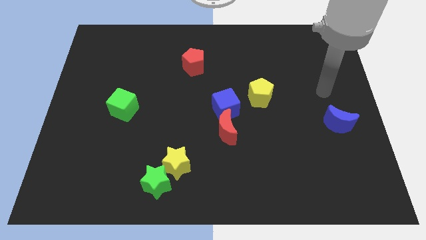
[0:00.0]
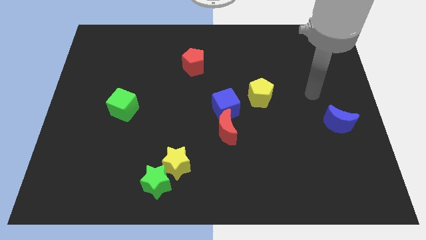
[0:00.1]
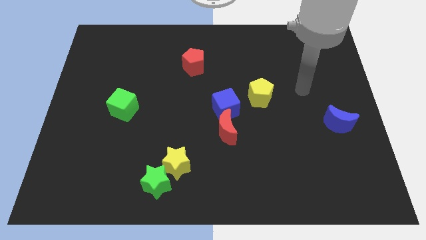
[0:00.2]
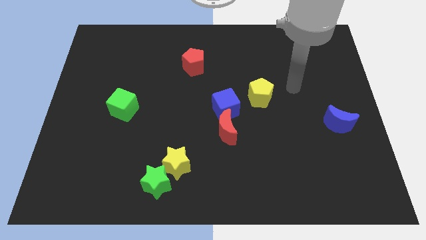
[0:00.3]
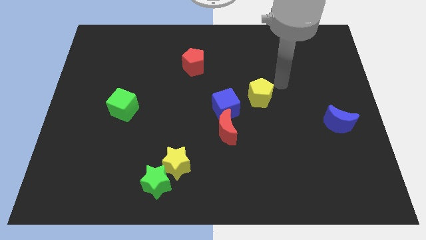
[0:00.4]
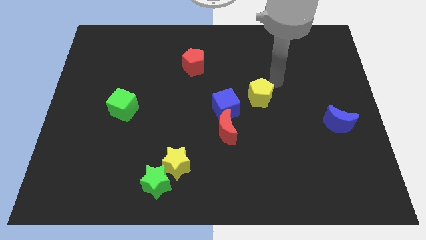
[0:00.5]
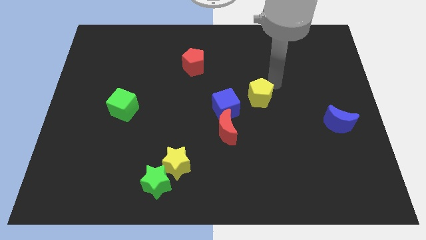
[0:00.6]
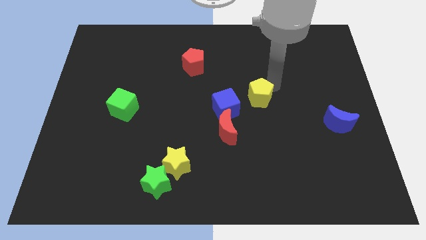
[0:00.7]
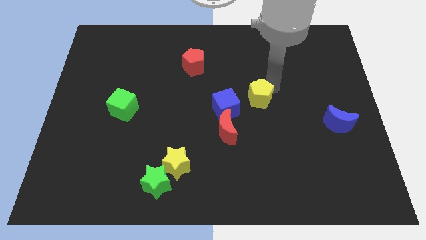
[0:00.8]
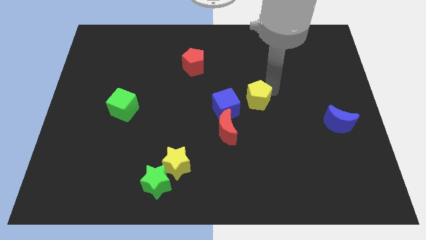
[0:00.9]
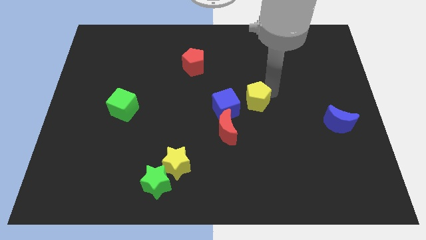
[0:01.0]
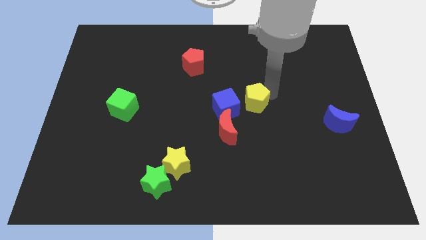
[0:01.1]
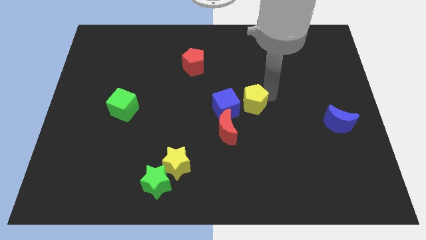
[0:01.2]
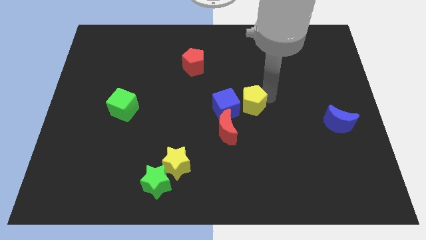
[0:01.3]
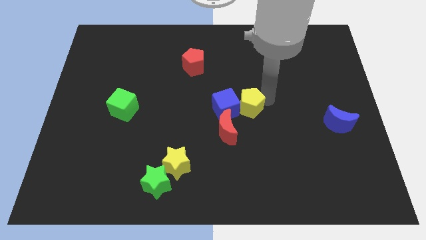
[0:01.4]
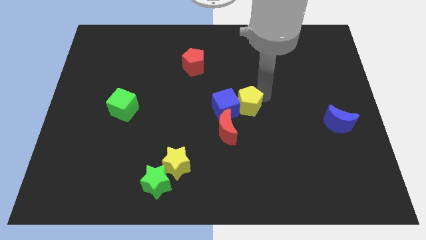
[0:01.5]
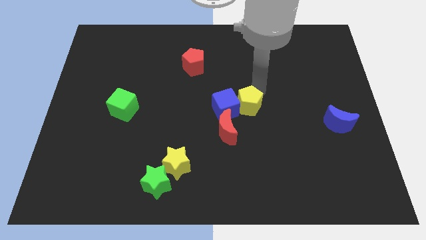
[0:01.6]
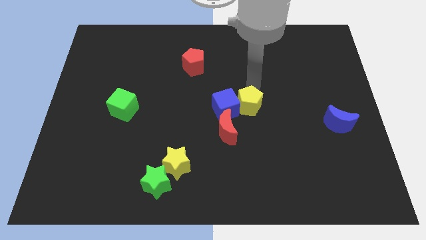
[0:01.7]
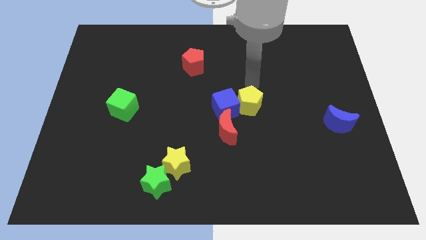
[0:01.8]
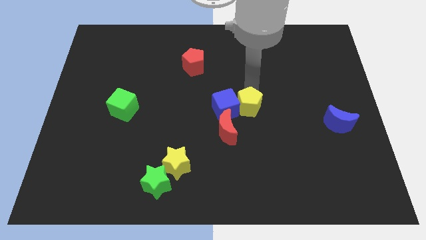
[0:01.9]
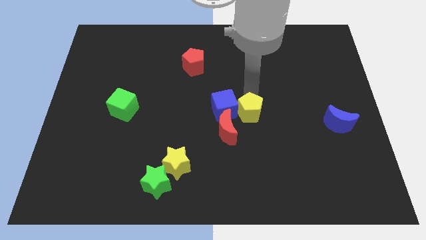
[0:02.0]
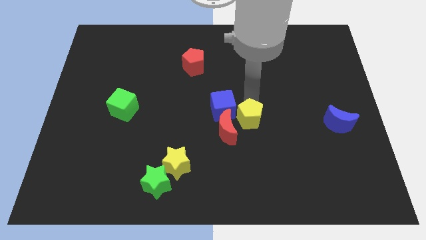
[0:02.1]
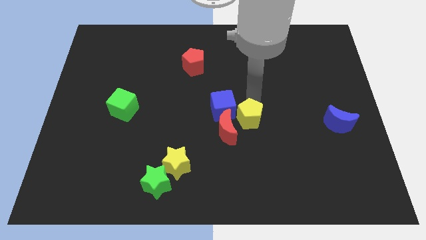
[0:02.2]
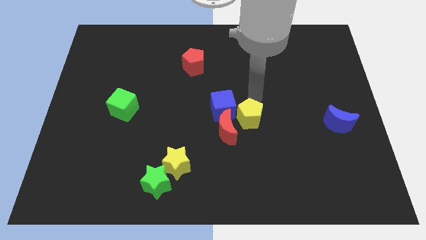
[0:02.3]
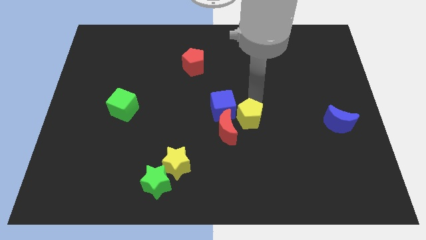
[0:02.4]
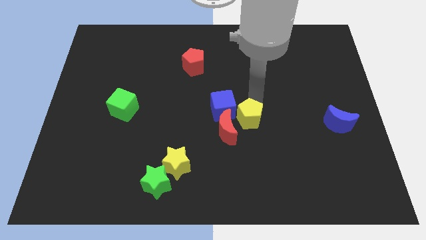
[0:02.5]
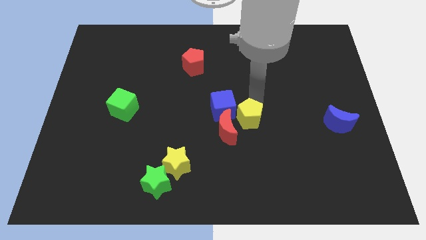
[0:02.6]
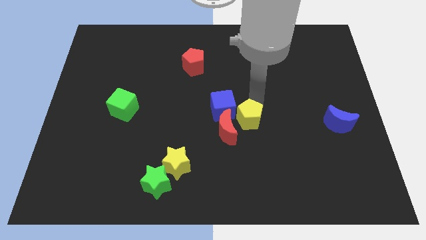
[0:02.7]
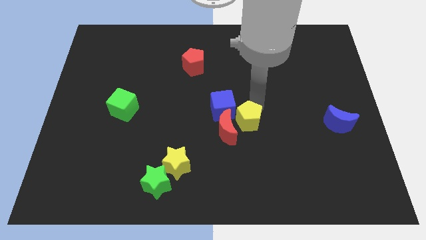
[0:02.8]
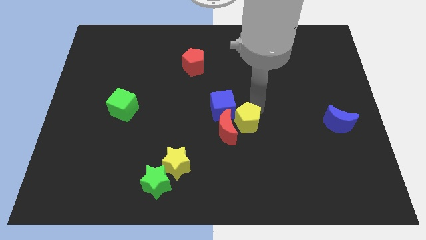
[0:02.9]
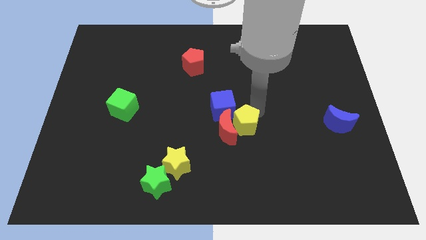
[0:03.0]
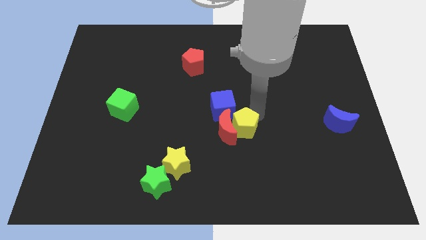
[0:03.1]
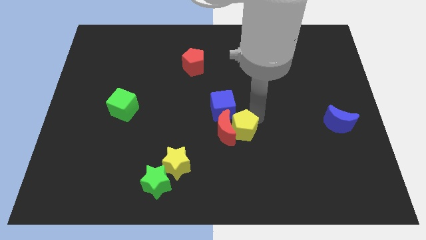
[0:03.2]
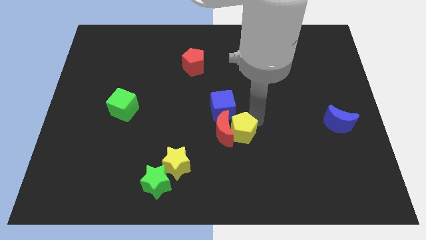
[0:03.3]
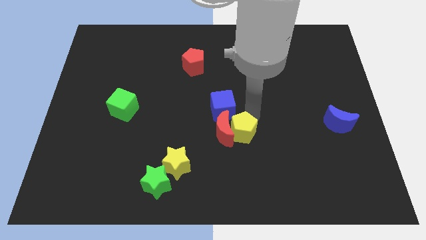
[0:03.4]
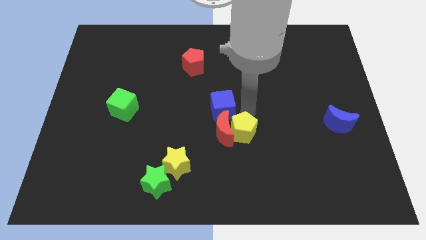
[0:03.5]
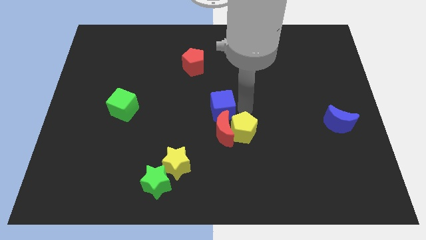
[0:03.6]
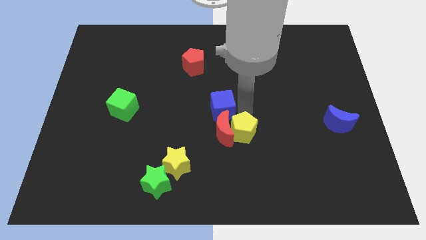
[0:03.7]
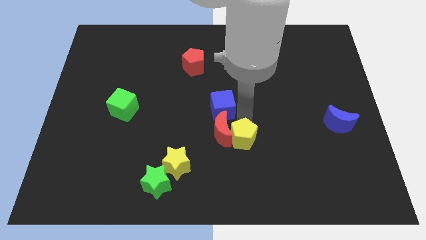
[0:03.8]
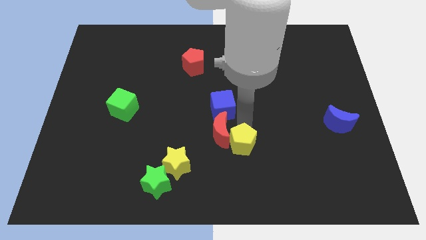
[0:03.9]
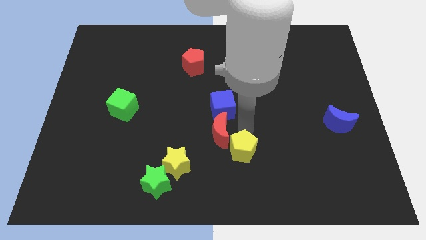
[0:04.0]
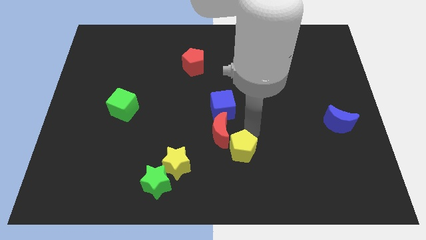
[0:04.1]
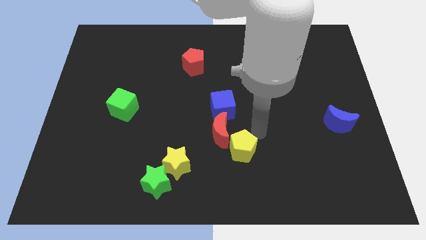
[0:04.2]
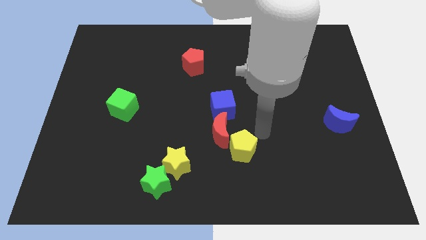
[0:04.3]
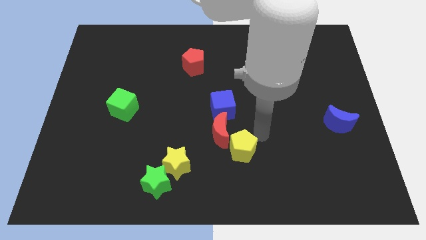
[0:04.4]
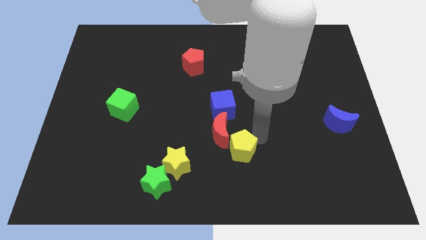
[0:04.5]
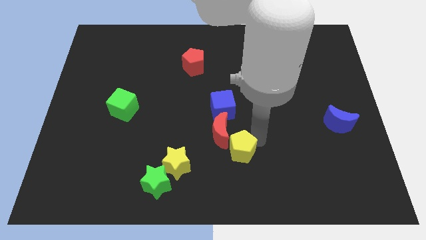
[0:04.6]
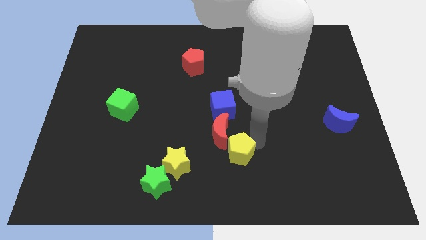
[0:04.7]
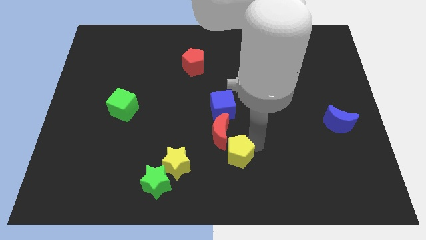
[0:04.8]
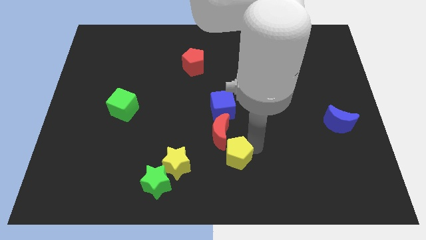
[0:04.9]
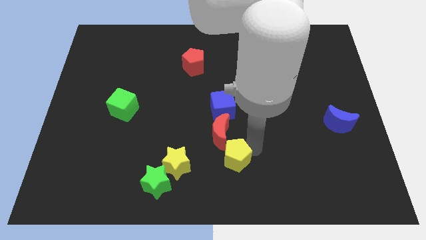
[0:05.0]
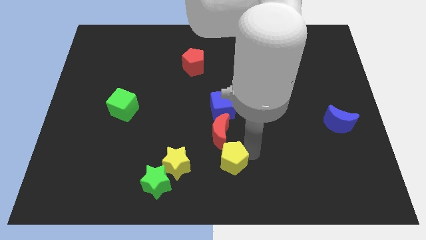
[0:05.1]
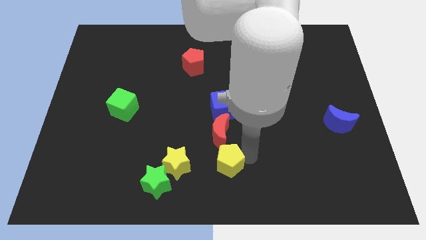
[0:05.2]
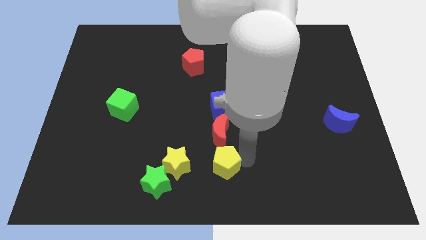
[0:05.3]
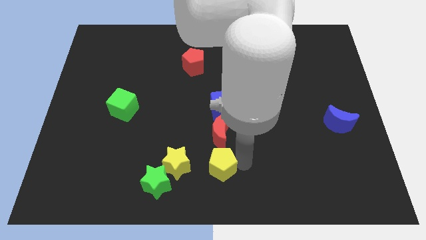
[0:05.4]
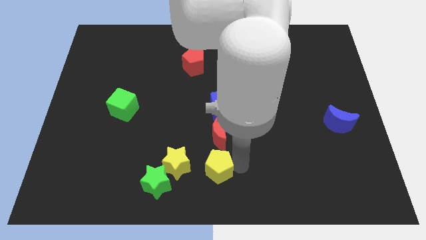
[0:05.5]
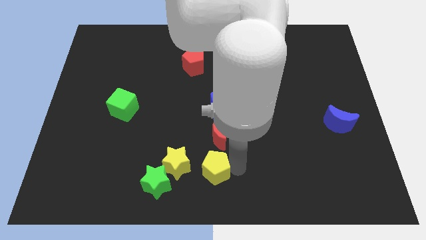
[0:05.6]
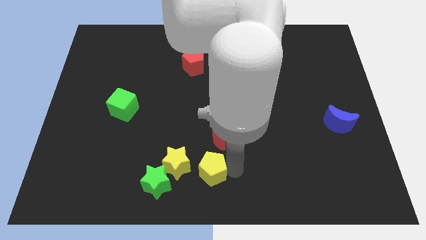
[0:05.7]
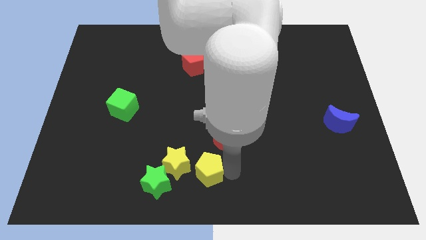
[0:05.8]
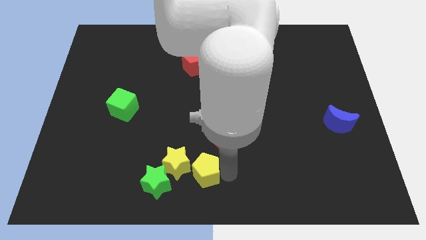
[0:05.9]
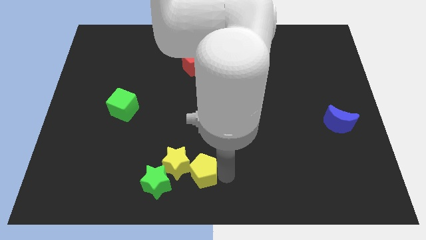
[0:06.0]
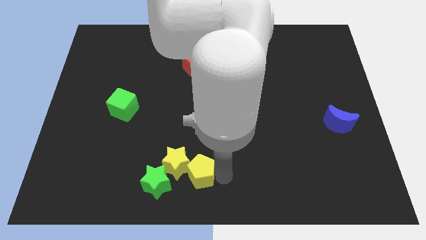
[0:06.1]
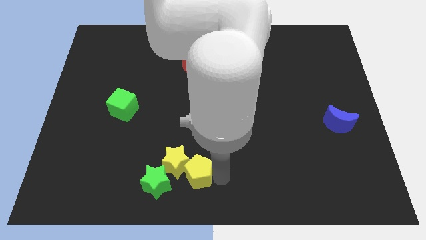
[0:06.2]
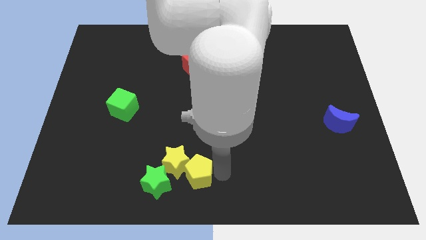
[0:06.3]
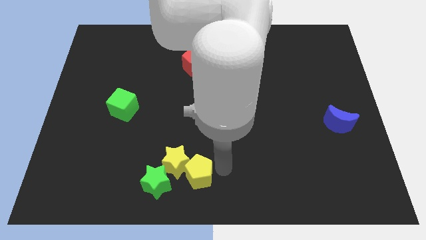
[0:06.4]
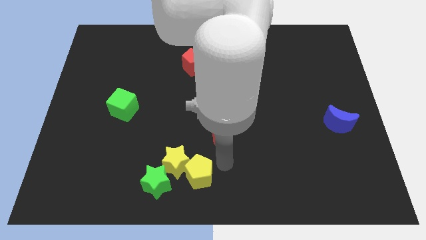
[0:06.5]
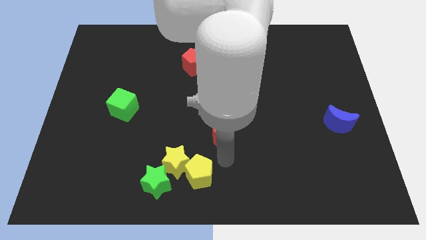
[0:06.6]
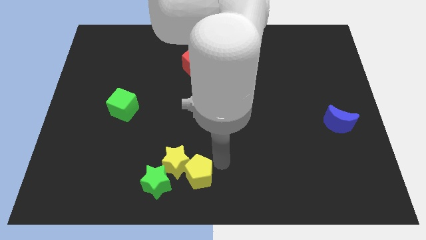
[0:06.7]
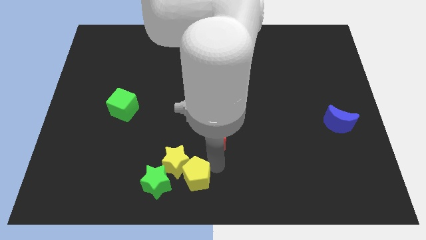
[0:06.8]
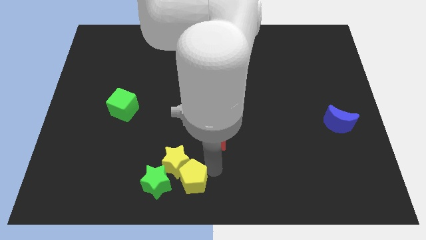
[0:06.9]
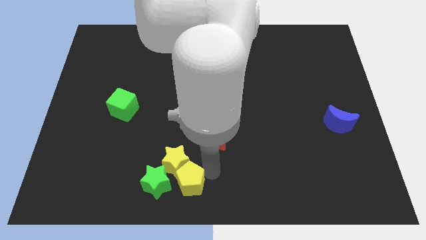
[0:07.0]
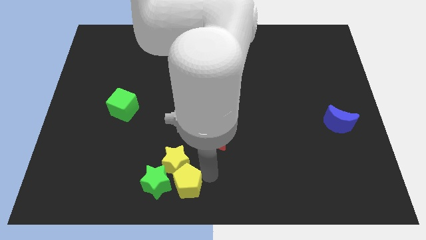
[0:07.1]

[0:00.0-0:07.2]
slide the yellow pentagon to the green star

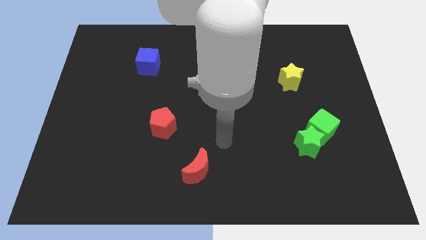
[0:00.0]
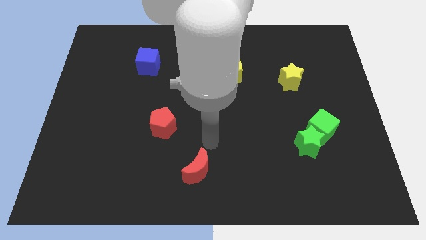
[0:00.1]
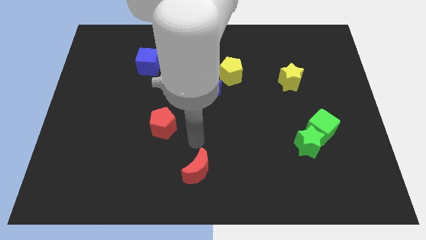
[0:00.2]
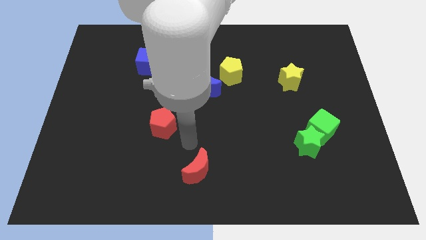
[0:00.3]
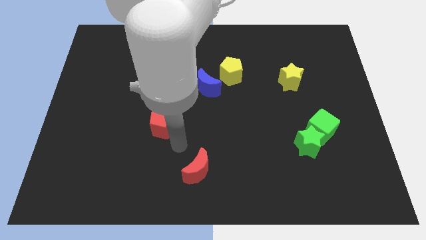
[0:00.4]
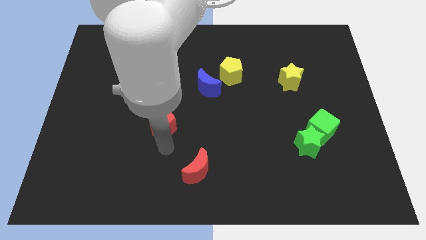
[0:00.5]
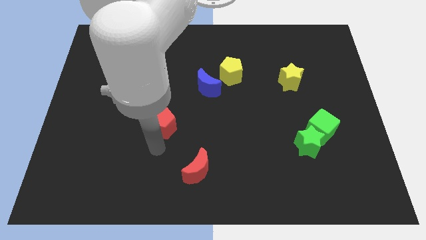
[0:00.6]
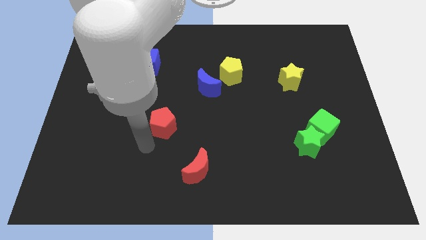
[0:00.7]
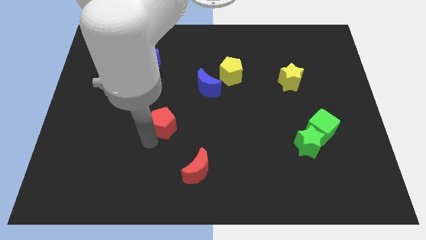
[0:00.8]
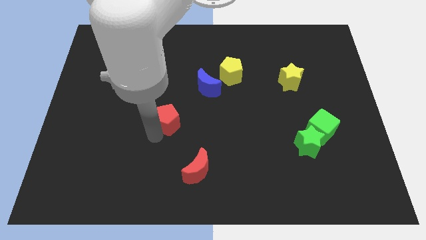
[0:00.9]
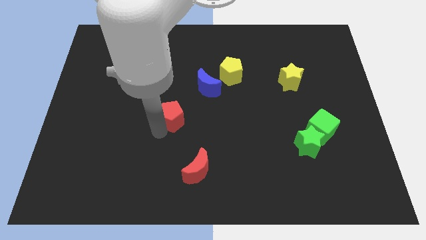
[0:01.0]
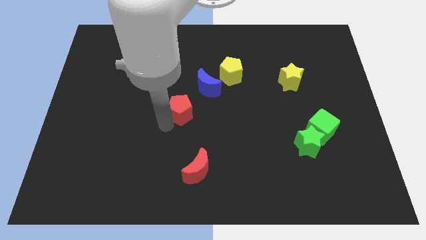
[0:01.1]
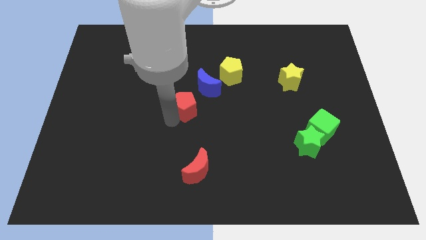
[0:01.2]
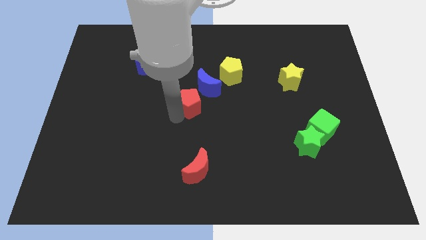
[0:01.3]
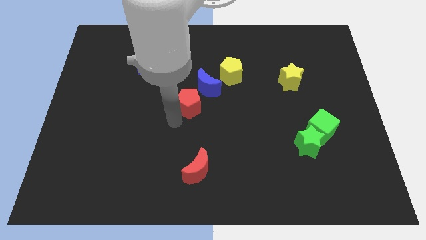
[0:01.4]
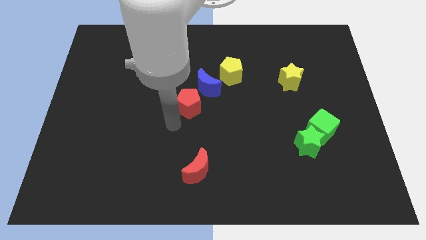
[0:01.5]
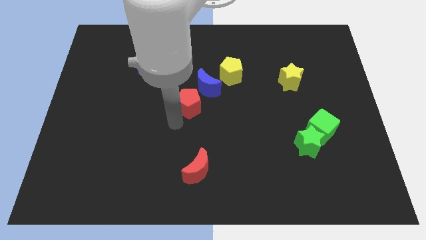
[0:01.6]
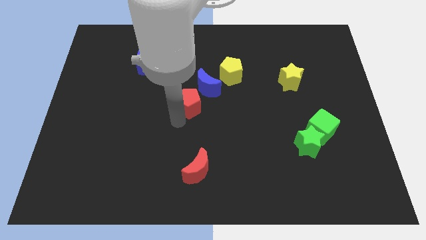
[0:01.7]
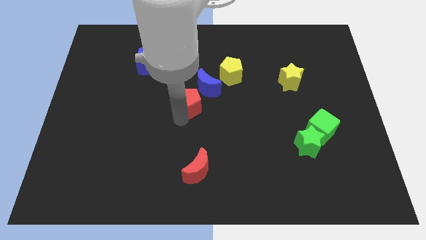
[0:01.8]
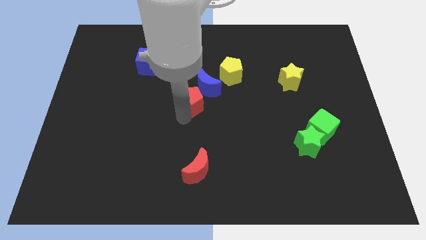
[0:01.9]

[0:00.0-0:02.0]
push the red pentagon next to the blue moon
